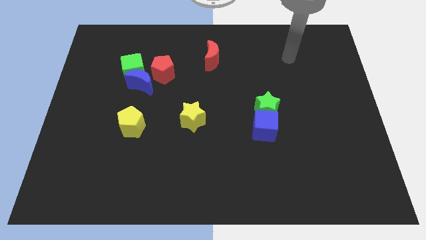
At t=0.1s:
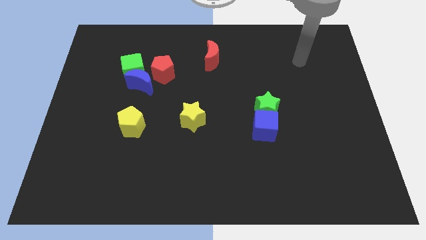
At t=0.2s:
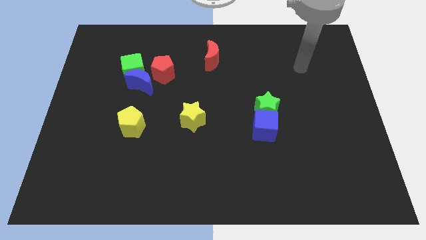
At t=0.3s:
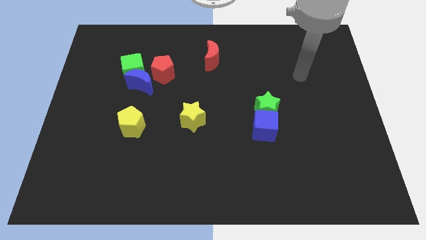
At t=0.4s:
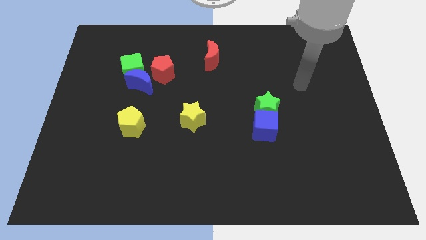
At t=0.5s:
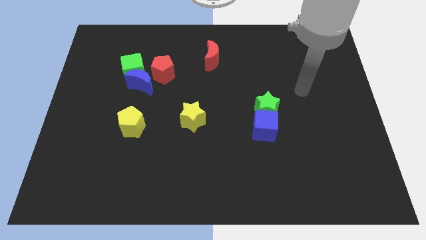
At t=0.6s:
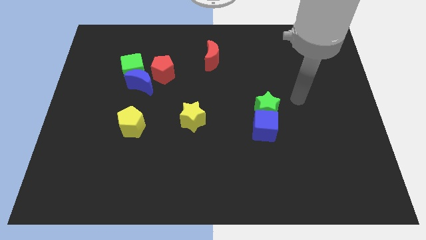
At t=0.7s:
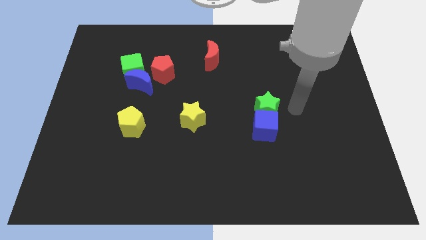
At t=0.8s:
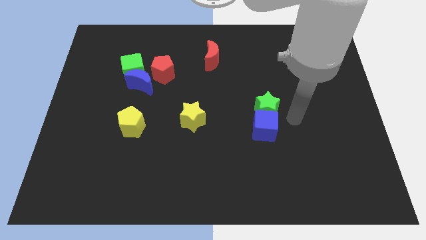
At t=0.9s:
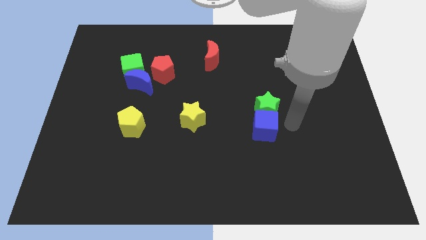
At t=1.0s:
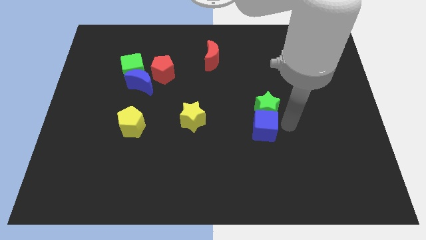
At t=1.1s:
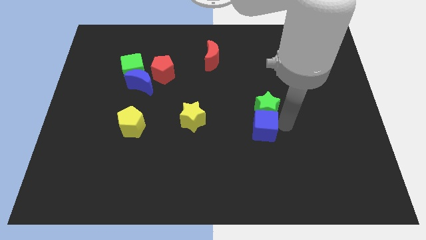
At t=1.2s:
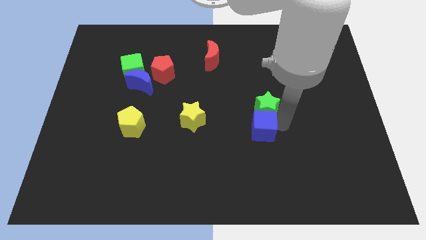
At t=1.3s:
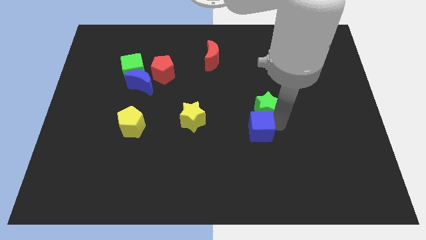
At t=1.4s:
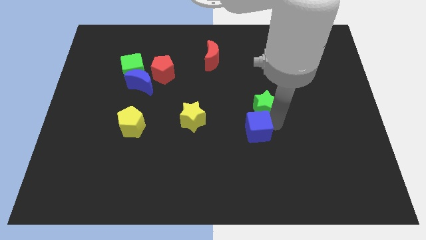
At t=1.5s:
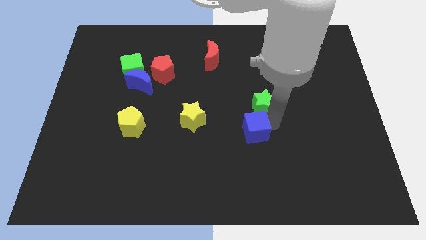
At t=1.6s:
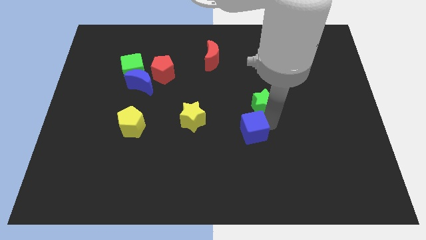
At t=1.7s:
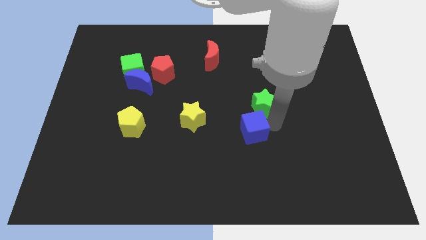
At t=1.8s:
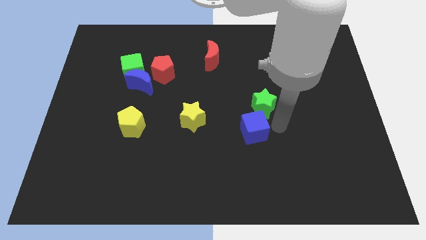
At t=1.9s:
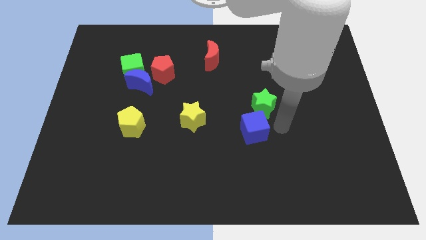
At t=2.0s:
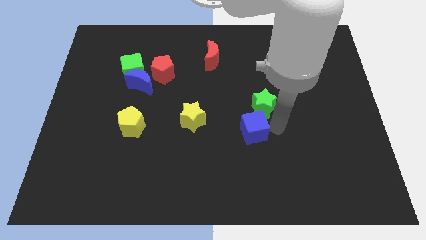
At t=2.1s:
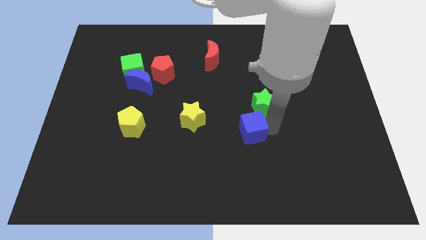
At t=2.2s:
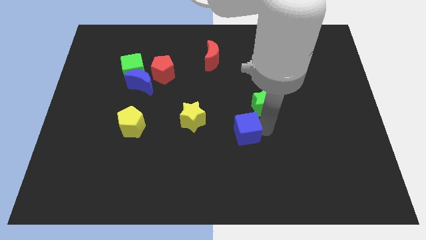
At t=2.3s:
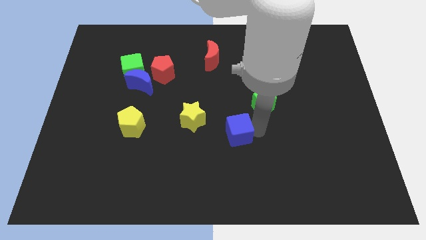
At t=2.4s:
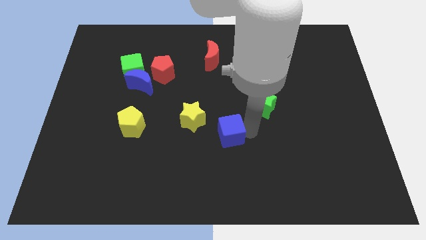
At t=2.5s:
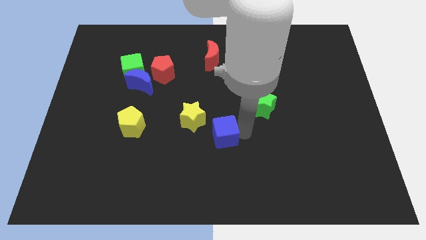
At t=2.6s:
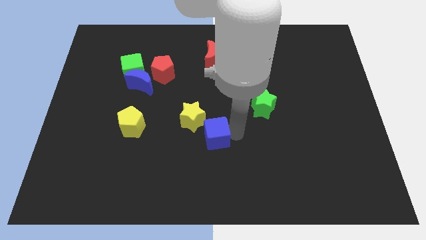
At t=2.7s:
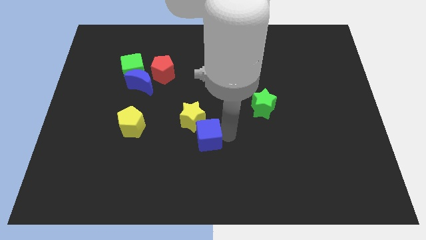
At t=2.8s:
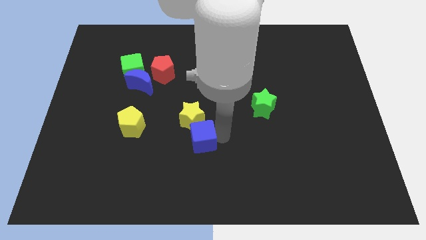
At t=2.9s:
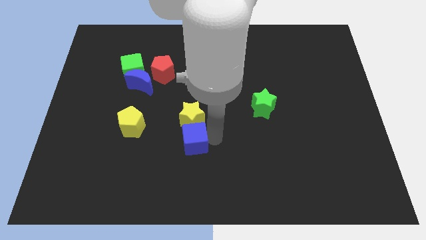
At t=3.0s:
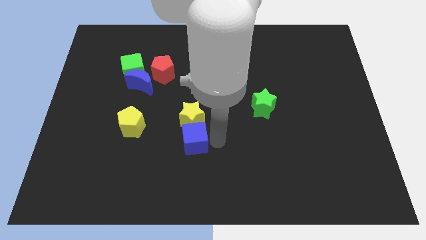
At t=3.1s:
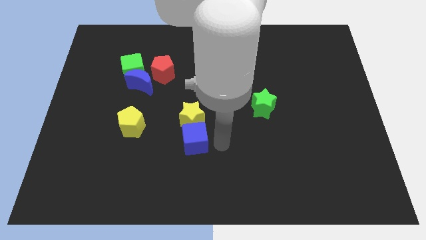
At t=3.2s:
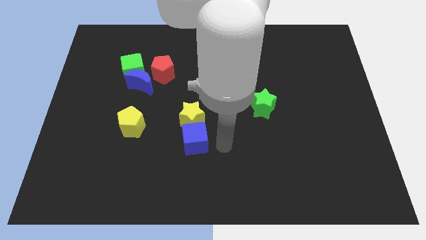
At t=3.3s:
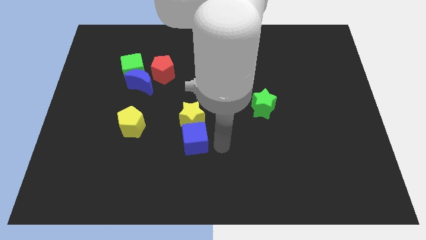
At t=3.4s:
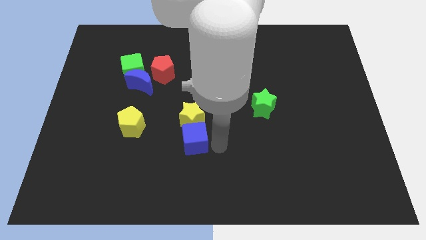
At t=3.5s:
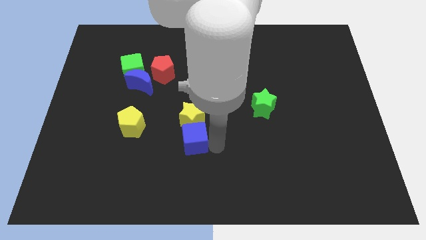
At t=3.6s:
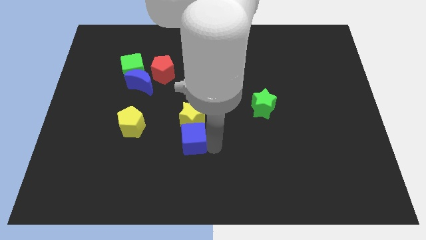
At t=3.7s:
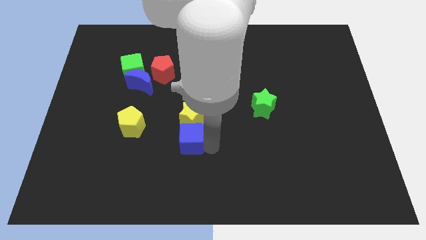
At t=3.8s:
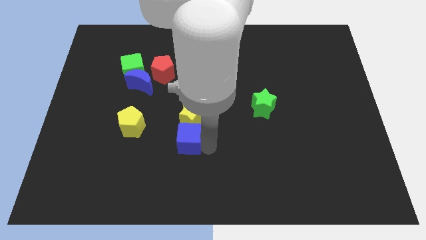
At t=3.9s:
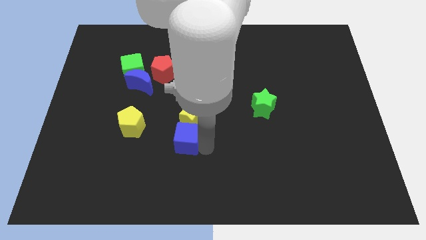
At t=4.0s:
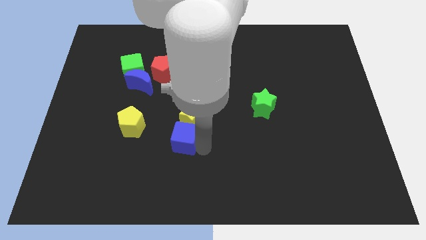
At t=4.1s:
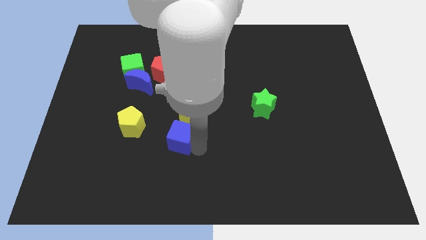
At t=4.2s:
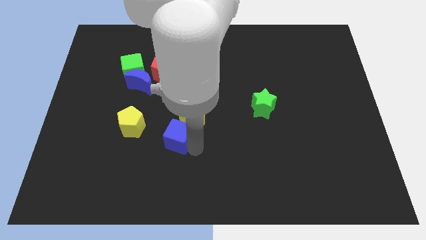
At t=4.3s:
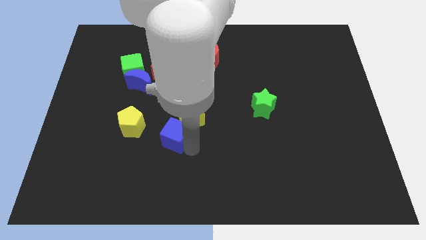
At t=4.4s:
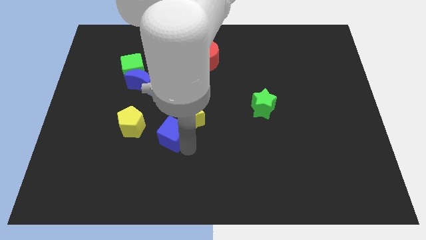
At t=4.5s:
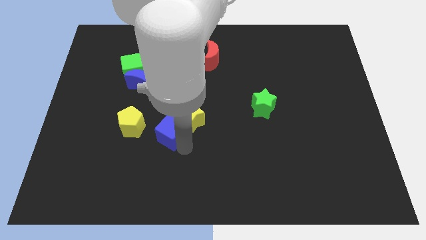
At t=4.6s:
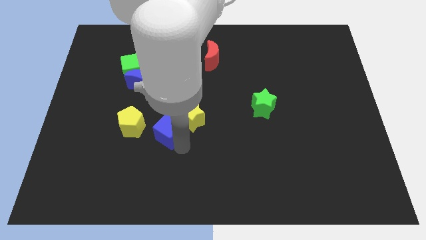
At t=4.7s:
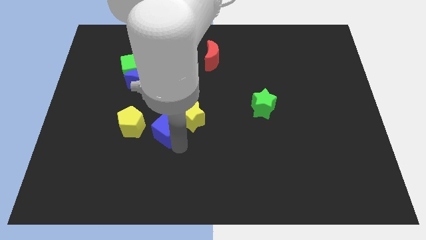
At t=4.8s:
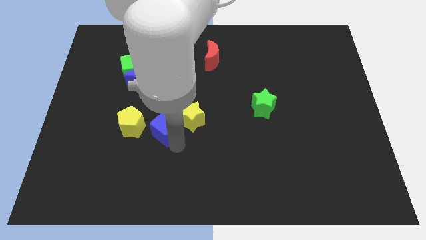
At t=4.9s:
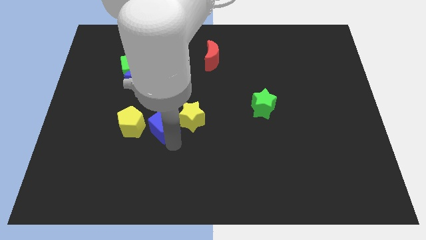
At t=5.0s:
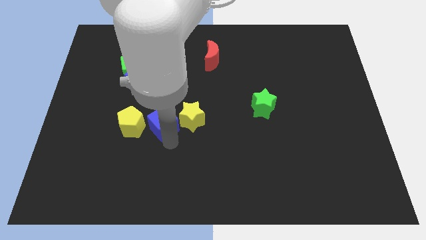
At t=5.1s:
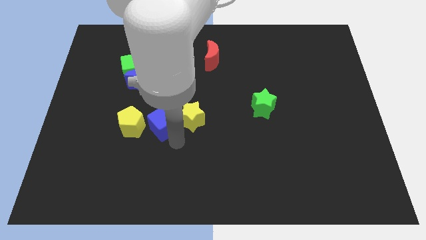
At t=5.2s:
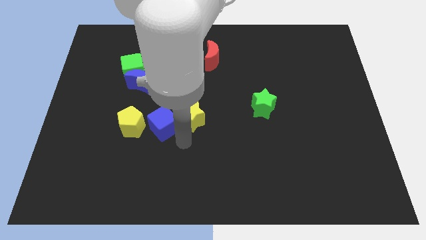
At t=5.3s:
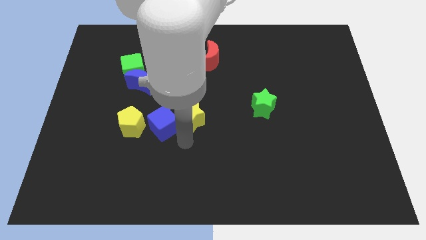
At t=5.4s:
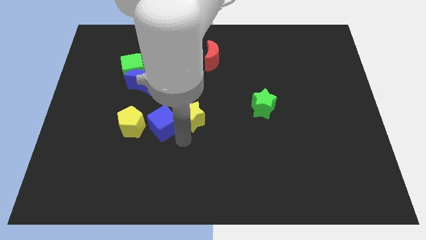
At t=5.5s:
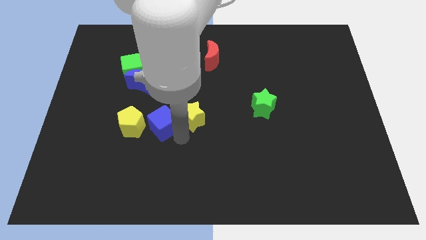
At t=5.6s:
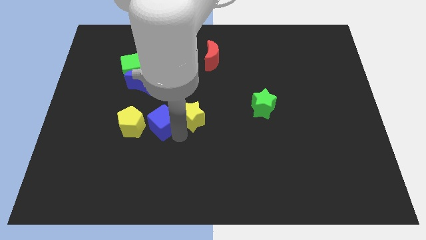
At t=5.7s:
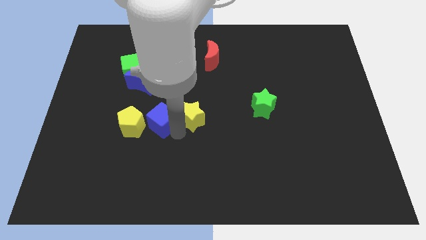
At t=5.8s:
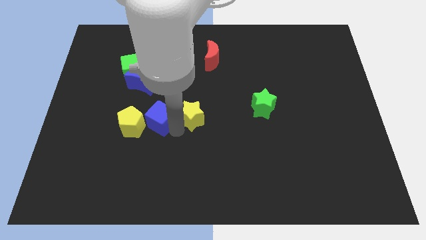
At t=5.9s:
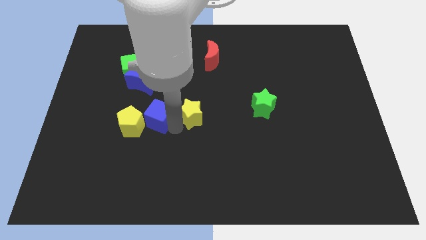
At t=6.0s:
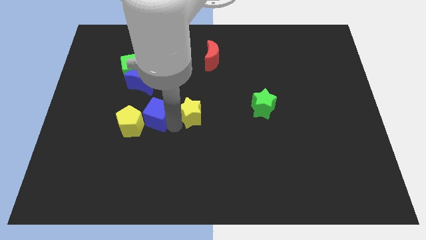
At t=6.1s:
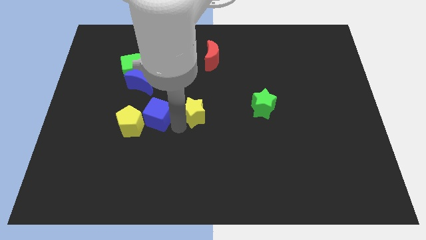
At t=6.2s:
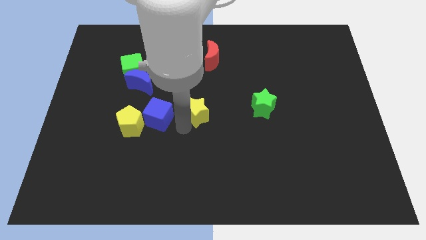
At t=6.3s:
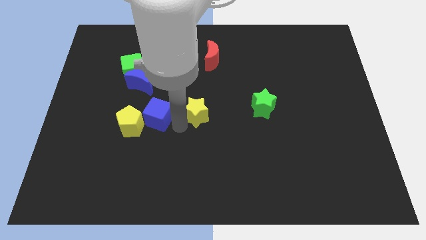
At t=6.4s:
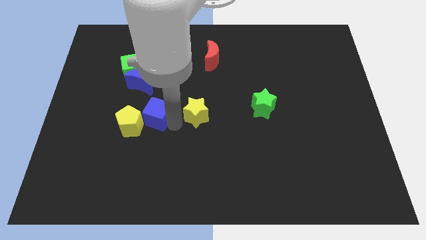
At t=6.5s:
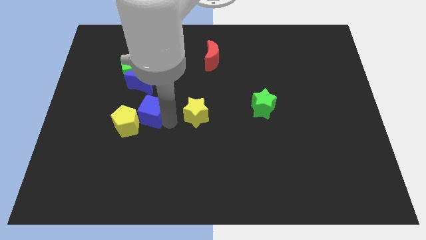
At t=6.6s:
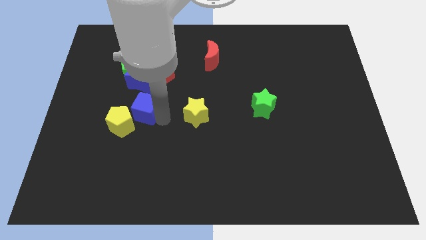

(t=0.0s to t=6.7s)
slide the blue cube to the bottom side of the green cube

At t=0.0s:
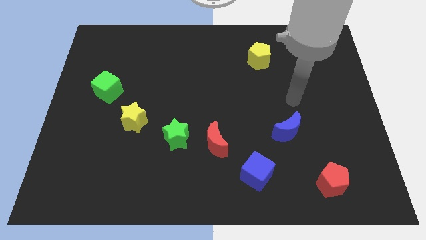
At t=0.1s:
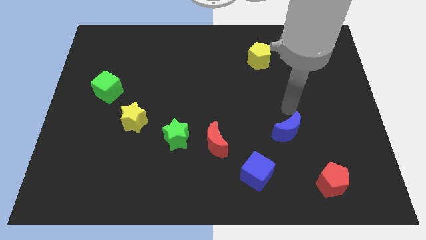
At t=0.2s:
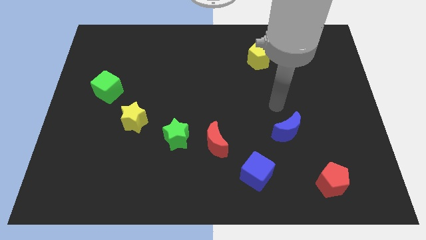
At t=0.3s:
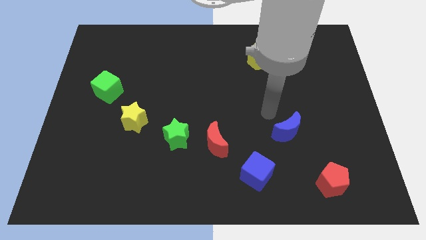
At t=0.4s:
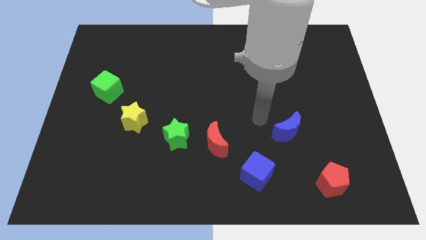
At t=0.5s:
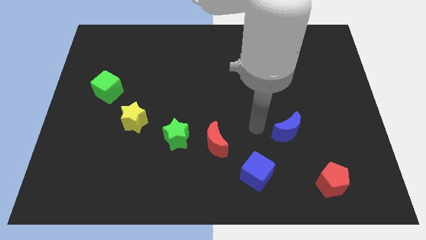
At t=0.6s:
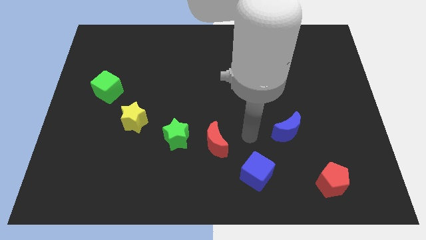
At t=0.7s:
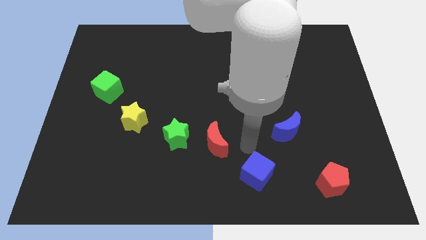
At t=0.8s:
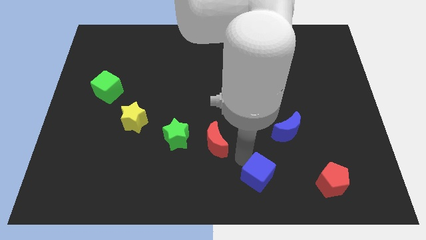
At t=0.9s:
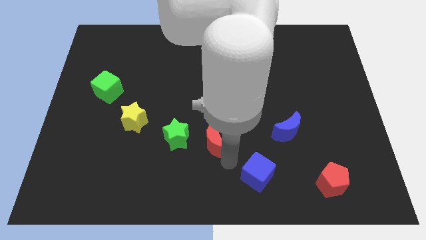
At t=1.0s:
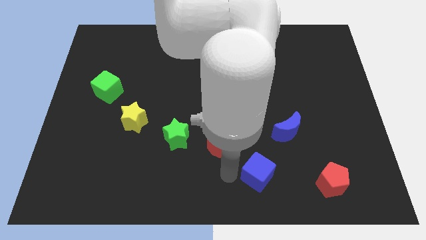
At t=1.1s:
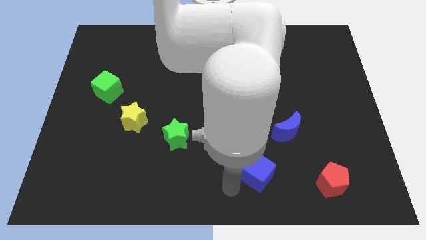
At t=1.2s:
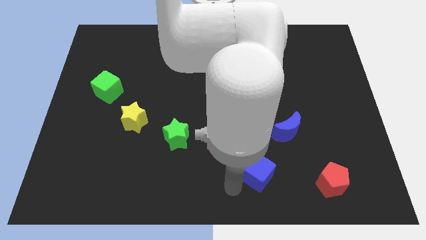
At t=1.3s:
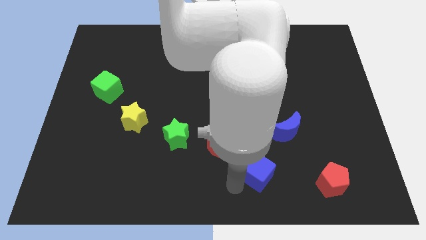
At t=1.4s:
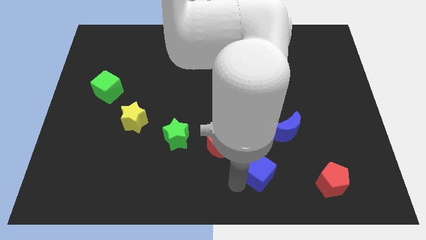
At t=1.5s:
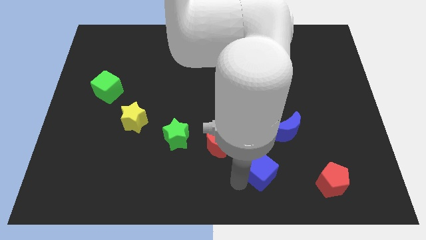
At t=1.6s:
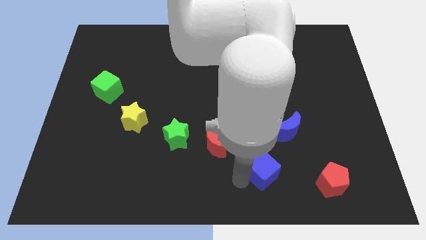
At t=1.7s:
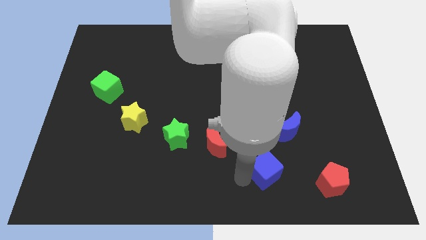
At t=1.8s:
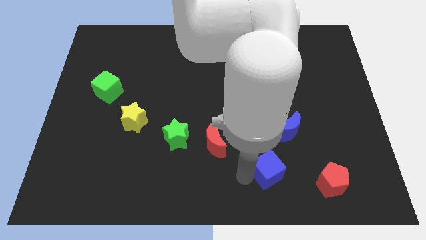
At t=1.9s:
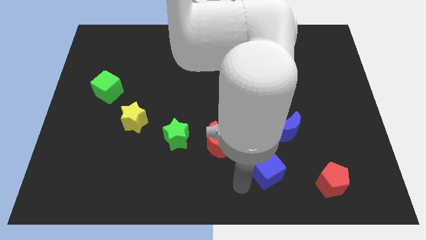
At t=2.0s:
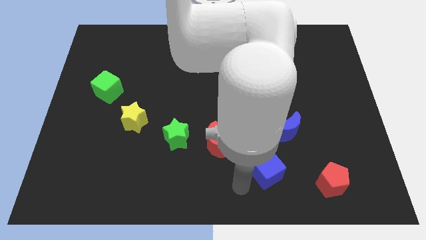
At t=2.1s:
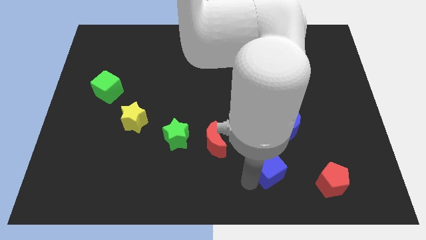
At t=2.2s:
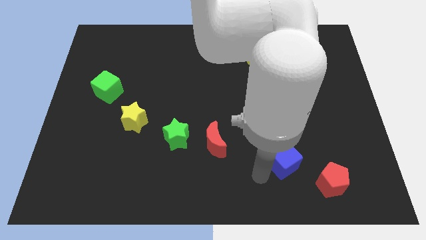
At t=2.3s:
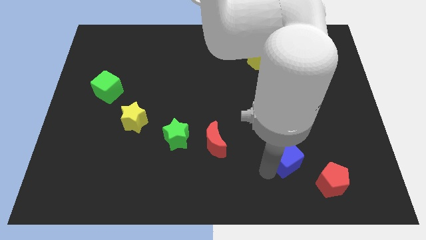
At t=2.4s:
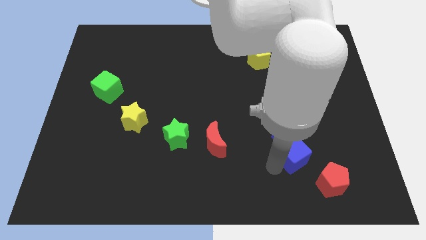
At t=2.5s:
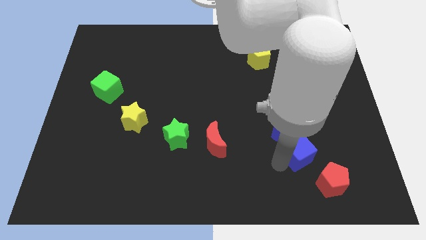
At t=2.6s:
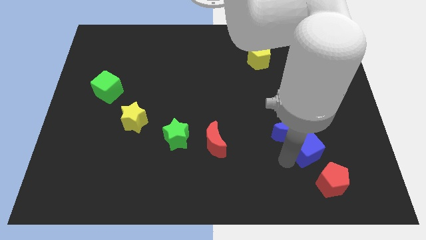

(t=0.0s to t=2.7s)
put the blue cube to the top of the red pentagon
